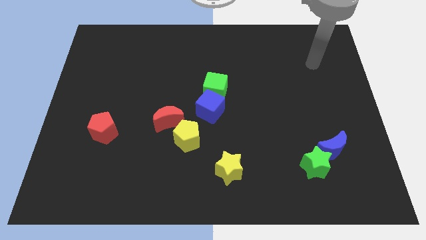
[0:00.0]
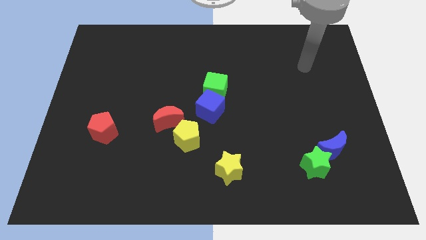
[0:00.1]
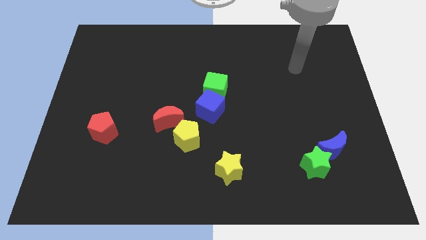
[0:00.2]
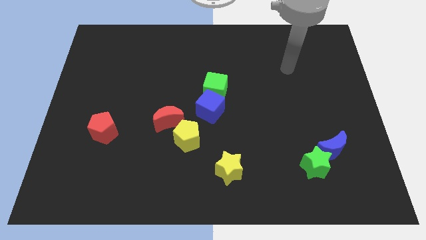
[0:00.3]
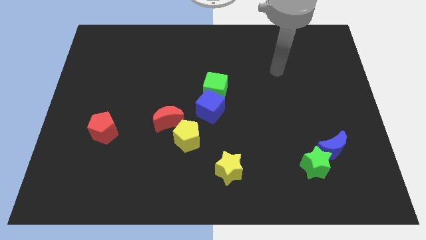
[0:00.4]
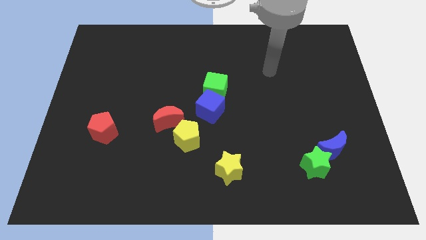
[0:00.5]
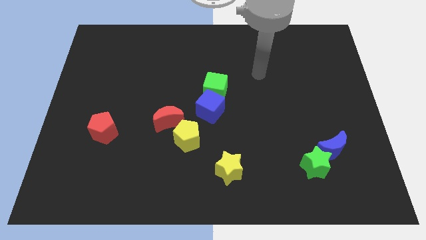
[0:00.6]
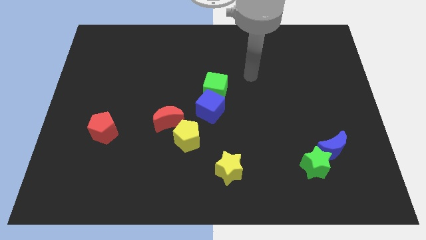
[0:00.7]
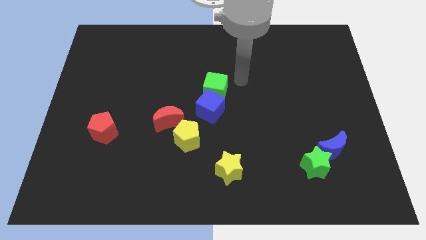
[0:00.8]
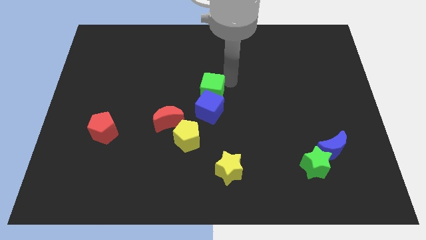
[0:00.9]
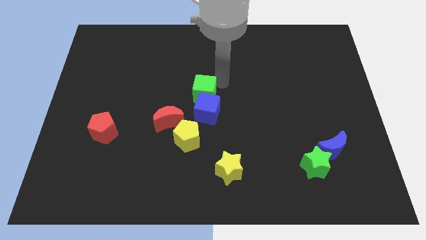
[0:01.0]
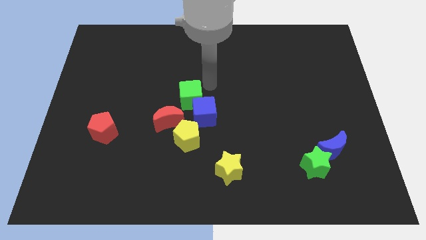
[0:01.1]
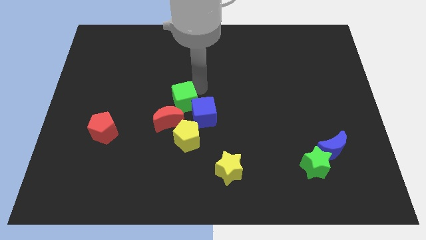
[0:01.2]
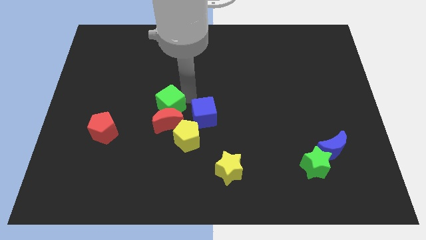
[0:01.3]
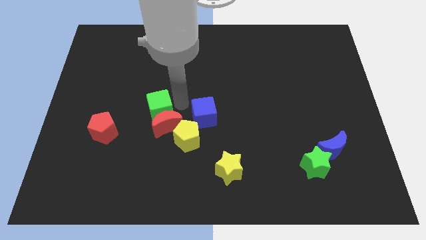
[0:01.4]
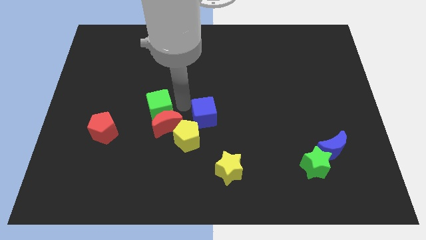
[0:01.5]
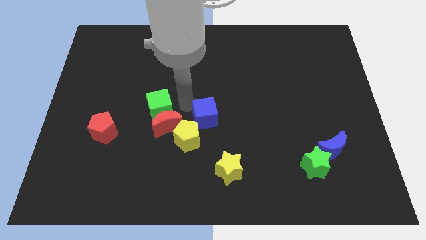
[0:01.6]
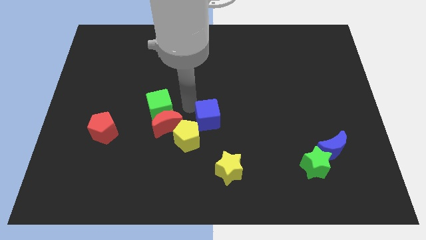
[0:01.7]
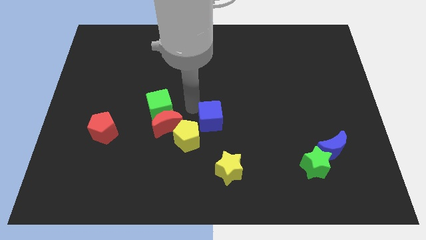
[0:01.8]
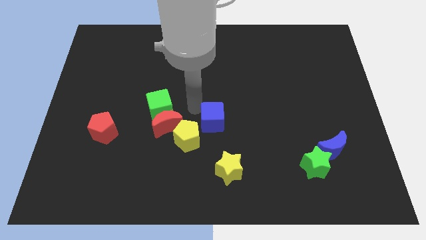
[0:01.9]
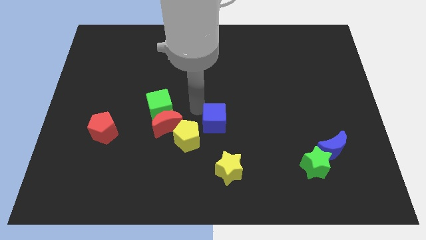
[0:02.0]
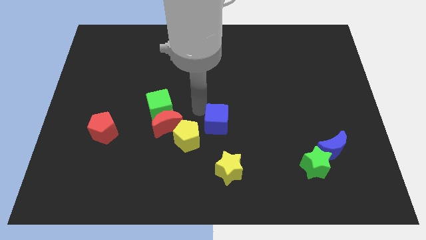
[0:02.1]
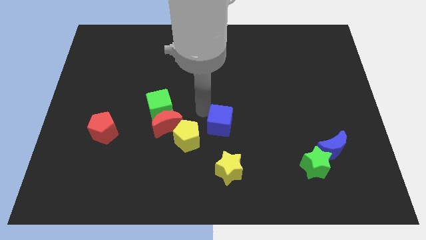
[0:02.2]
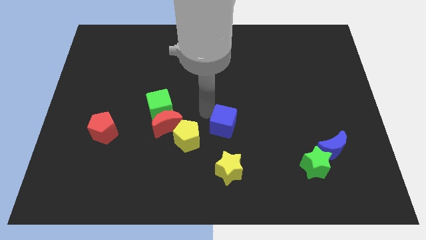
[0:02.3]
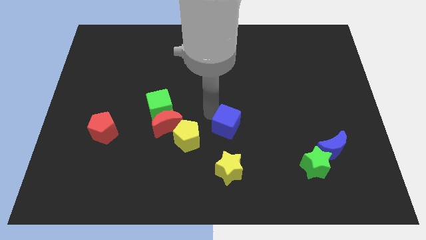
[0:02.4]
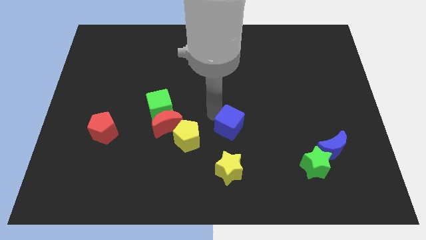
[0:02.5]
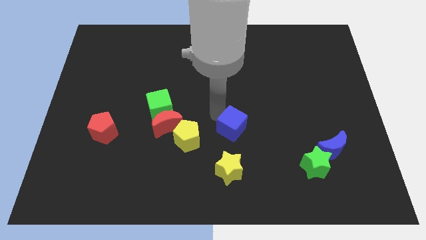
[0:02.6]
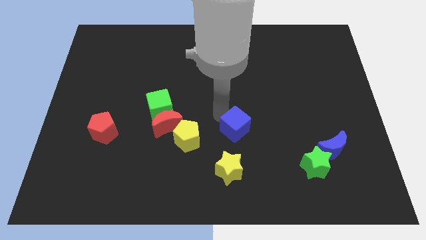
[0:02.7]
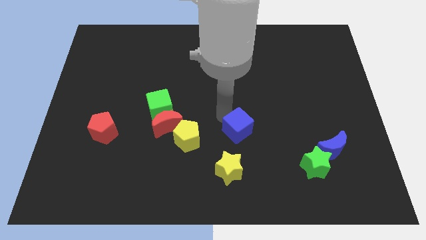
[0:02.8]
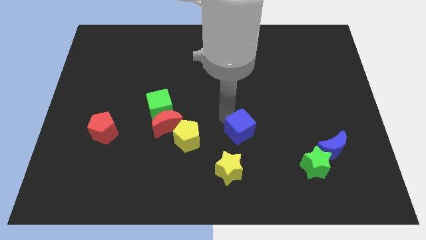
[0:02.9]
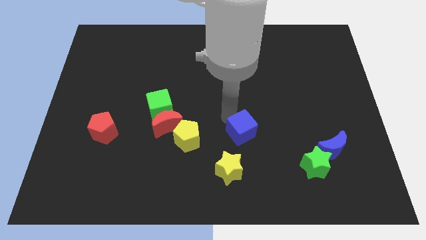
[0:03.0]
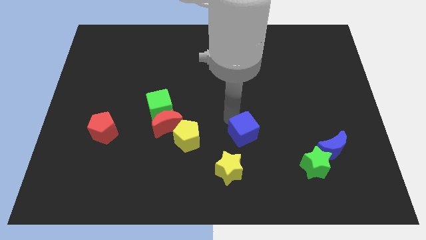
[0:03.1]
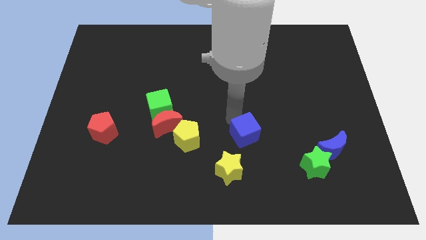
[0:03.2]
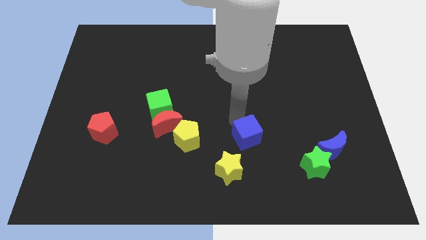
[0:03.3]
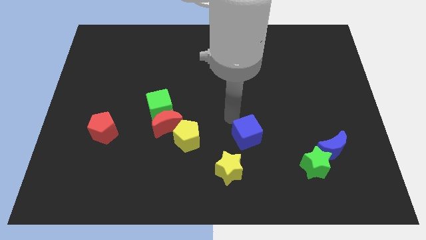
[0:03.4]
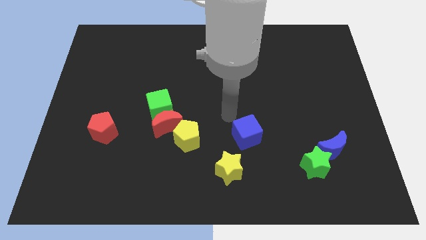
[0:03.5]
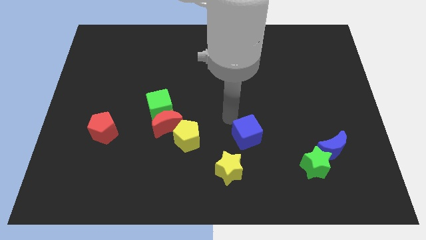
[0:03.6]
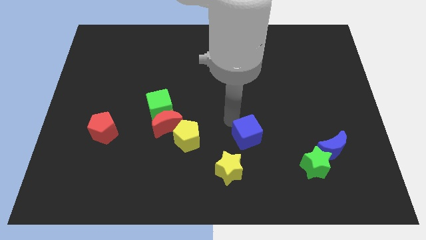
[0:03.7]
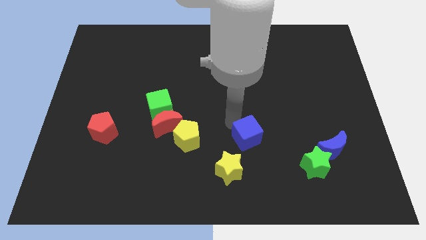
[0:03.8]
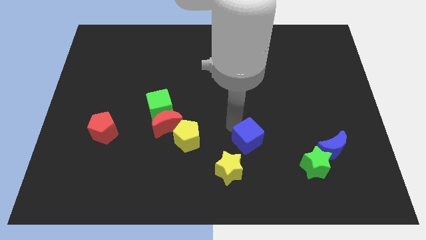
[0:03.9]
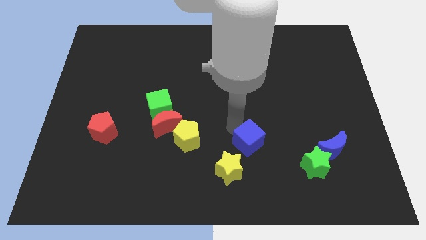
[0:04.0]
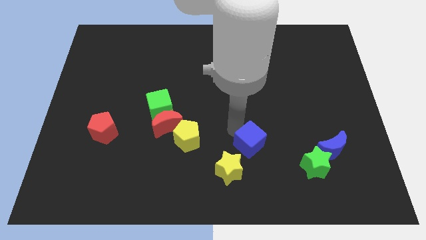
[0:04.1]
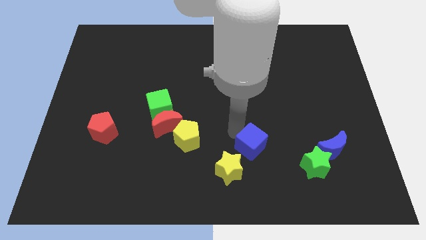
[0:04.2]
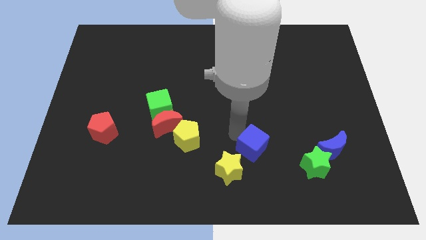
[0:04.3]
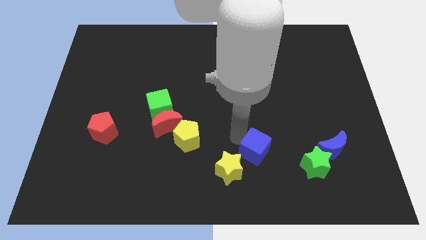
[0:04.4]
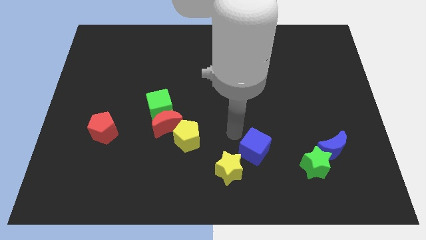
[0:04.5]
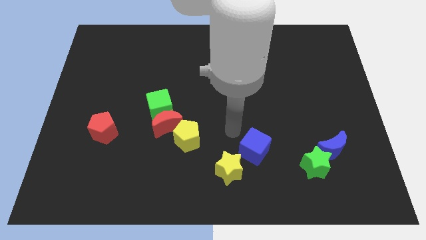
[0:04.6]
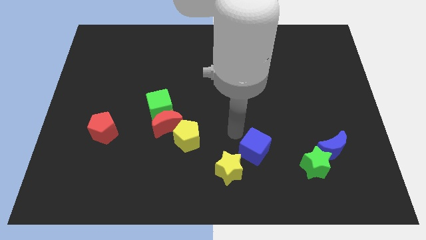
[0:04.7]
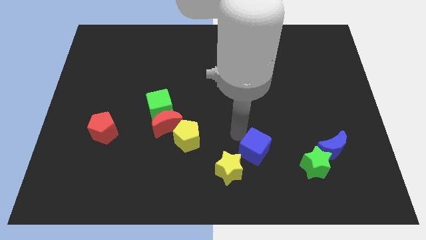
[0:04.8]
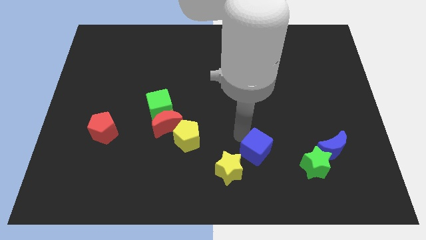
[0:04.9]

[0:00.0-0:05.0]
slide the blue cube to the right side of the yellow star

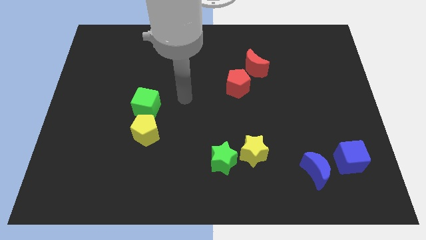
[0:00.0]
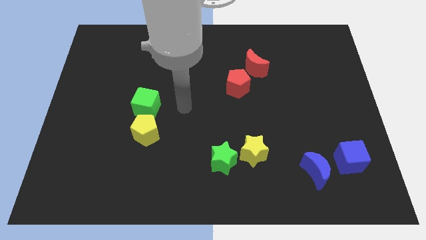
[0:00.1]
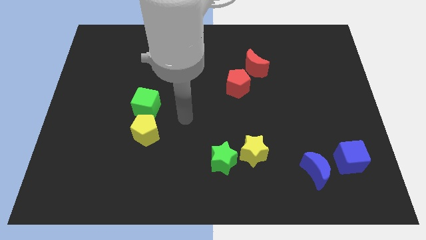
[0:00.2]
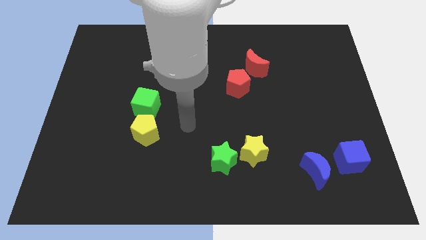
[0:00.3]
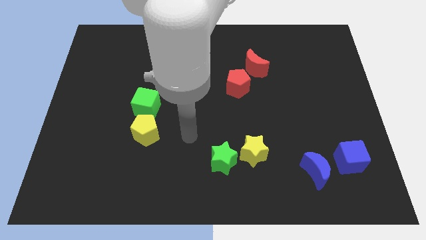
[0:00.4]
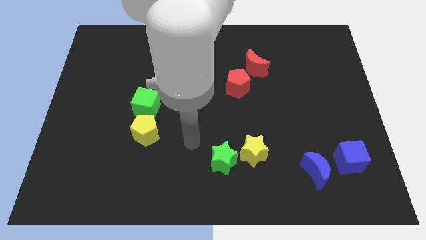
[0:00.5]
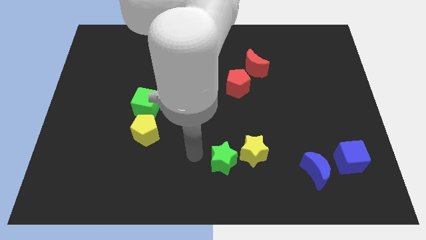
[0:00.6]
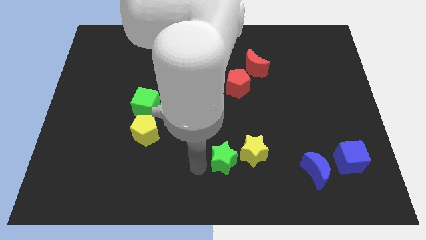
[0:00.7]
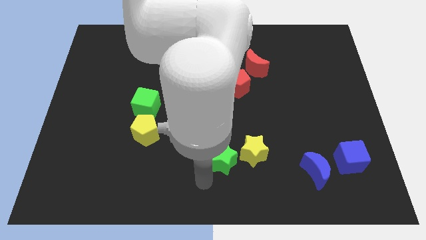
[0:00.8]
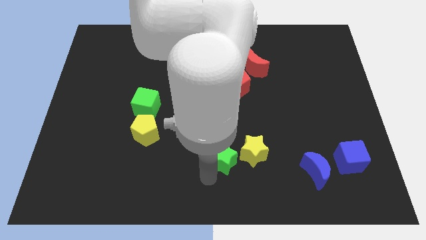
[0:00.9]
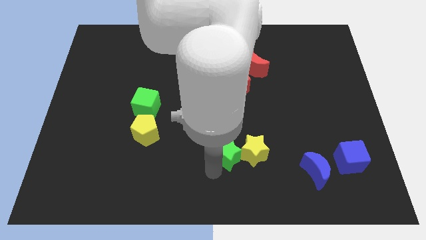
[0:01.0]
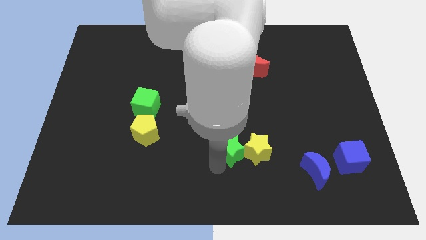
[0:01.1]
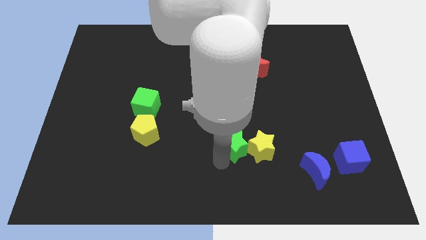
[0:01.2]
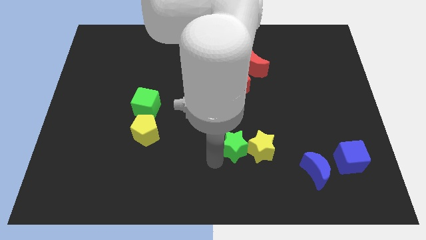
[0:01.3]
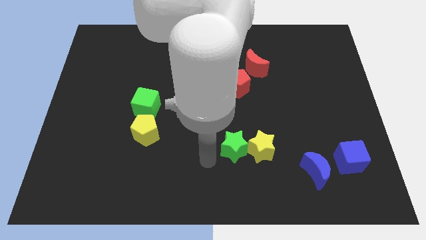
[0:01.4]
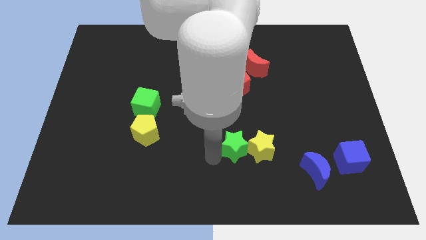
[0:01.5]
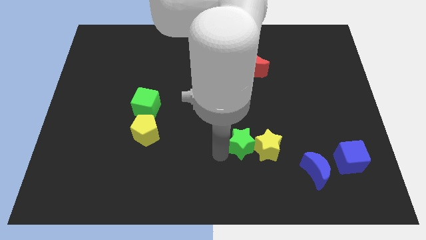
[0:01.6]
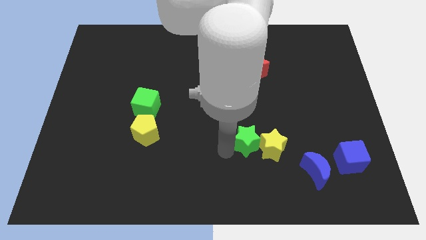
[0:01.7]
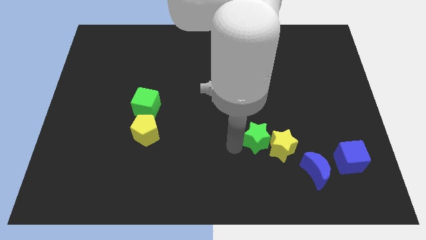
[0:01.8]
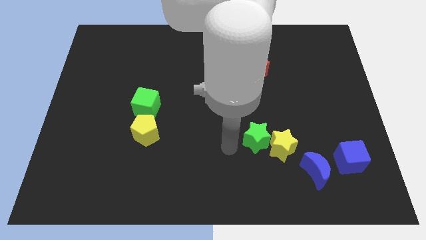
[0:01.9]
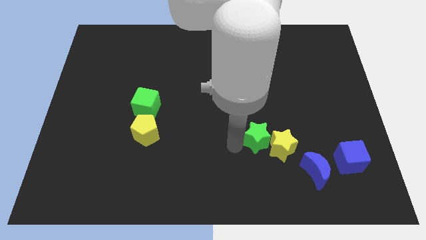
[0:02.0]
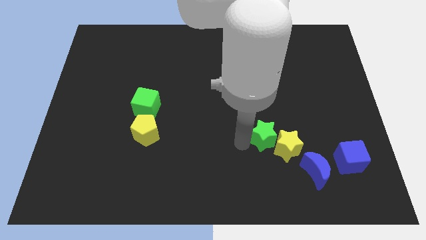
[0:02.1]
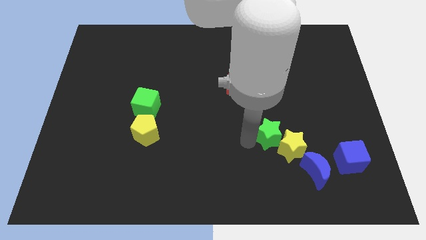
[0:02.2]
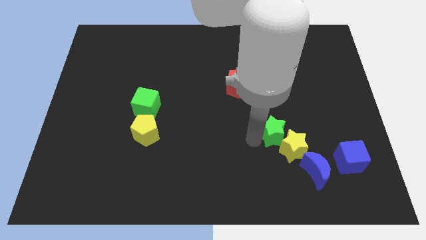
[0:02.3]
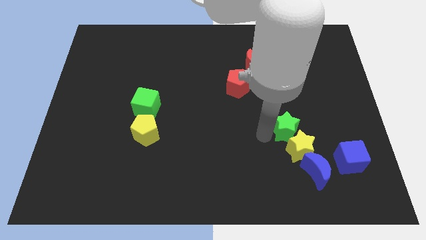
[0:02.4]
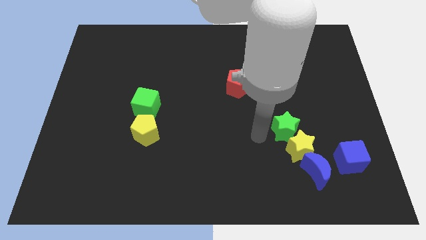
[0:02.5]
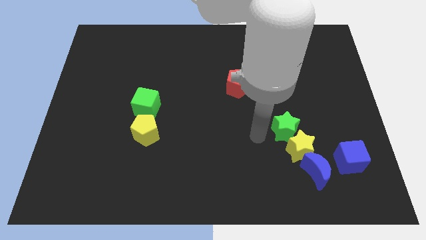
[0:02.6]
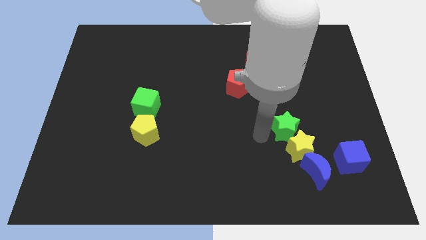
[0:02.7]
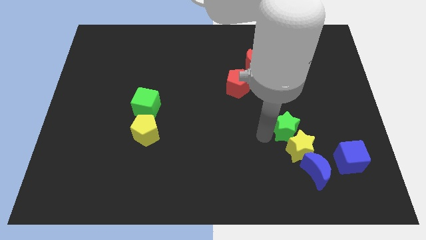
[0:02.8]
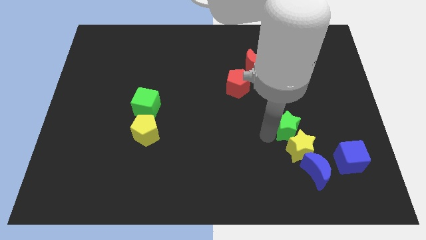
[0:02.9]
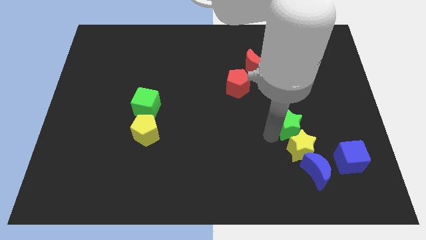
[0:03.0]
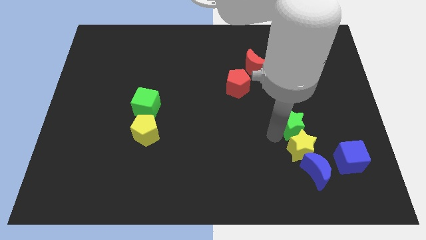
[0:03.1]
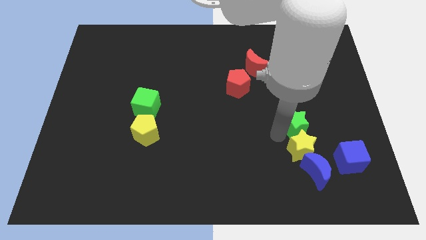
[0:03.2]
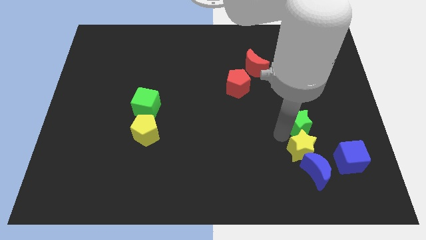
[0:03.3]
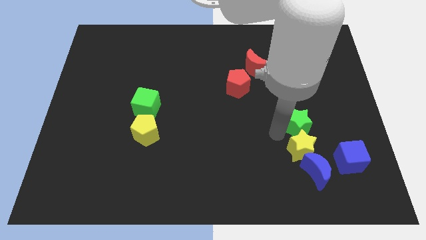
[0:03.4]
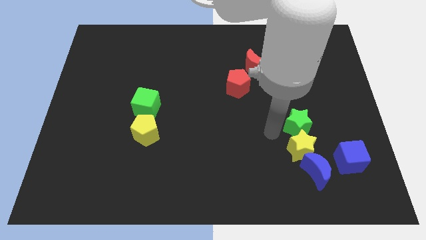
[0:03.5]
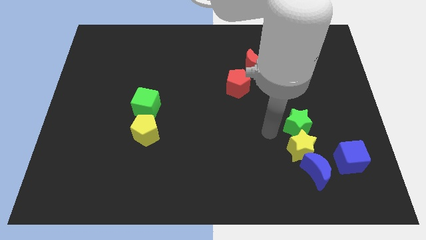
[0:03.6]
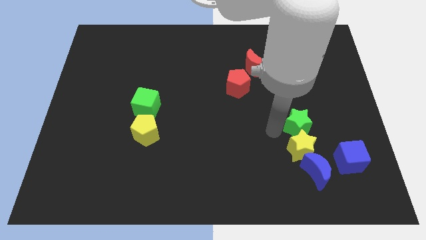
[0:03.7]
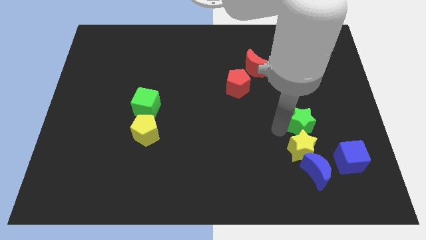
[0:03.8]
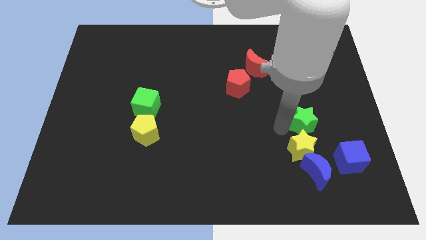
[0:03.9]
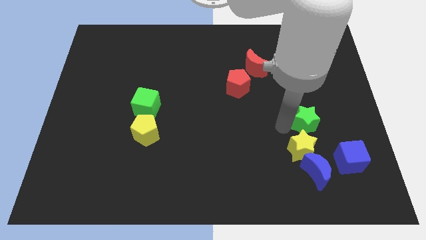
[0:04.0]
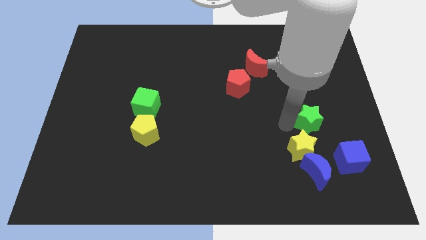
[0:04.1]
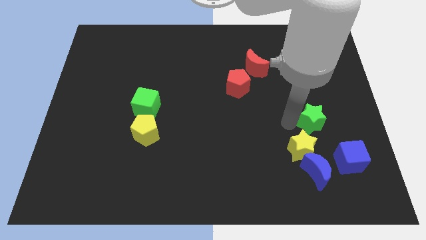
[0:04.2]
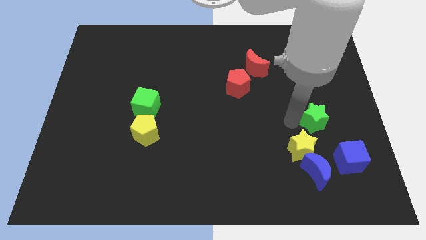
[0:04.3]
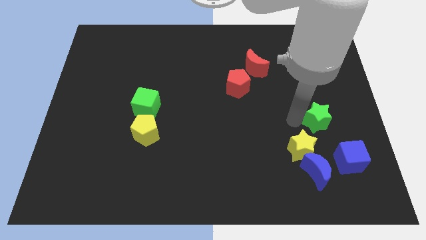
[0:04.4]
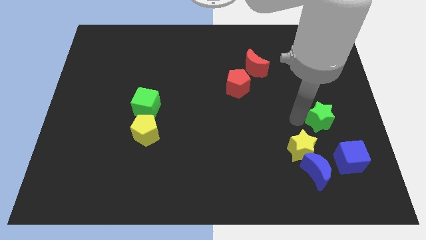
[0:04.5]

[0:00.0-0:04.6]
move the green star to the top of the blue cube
